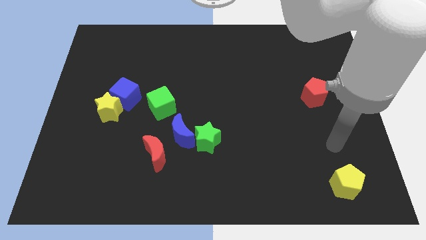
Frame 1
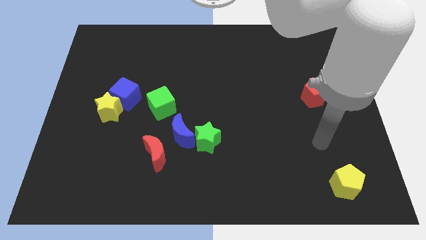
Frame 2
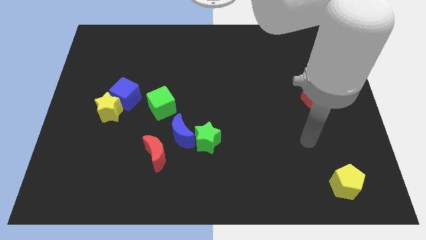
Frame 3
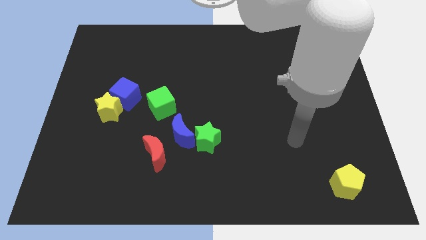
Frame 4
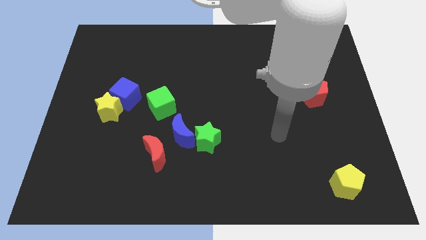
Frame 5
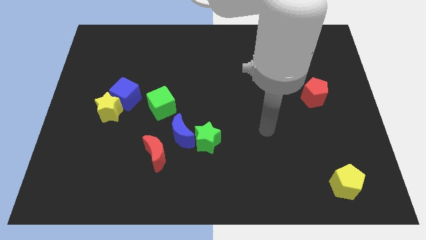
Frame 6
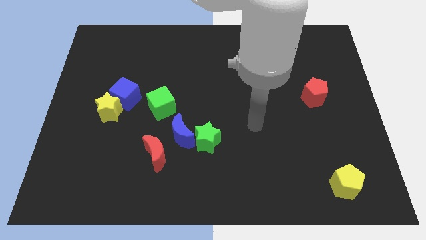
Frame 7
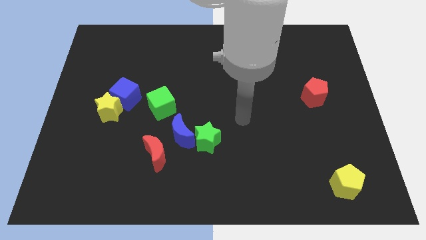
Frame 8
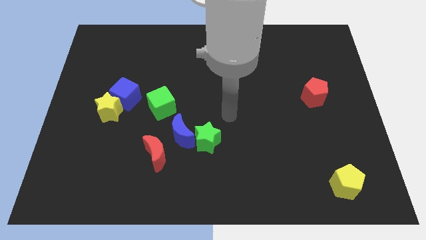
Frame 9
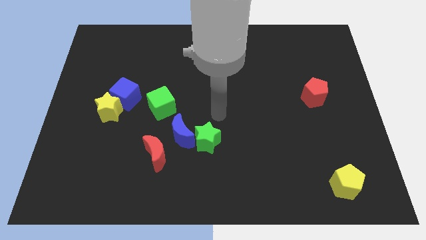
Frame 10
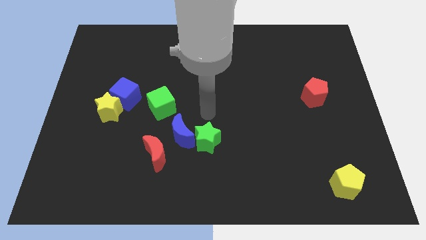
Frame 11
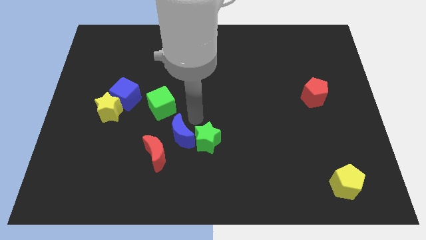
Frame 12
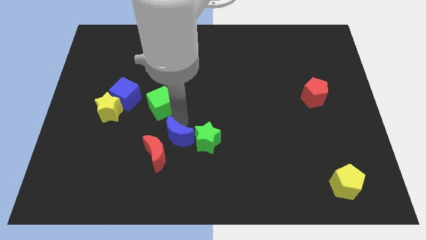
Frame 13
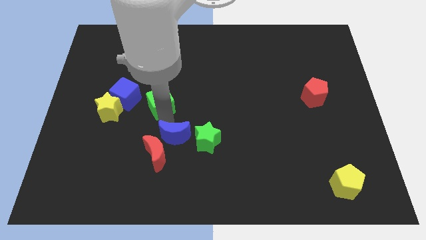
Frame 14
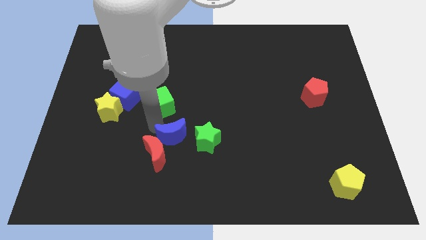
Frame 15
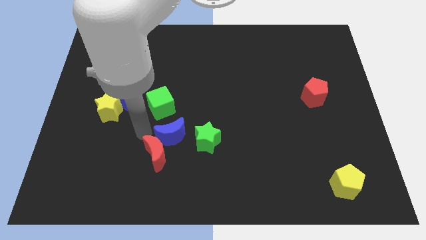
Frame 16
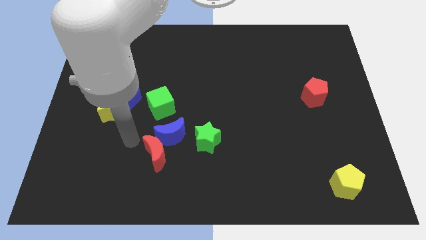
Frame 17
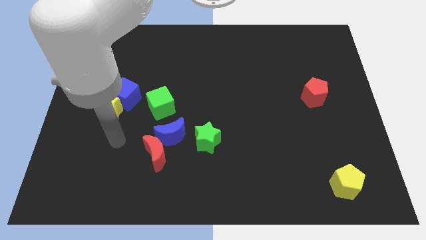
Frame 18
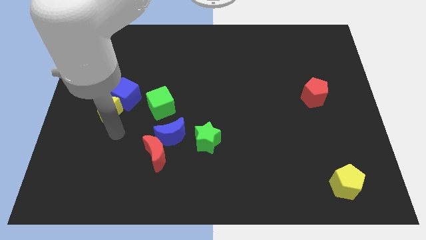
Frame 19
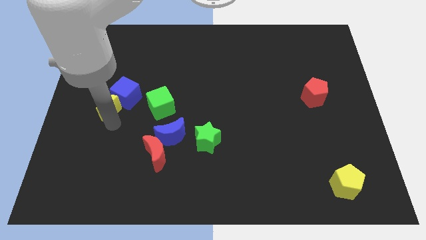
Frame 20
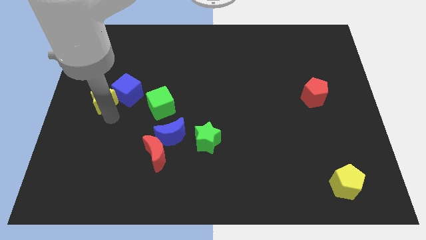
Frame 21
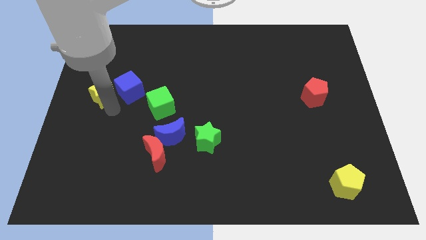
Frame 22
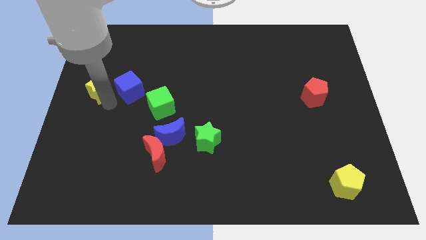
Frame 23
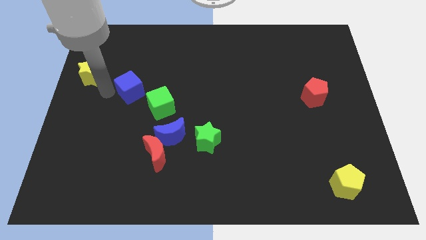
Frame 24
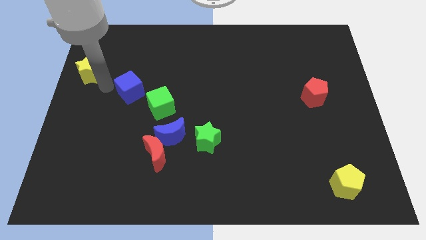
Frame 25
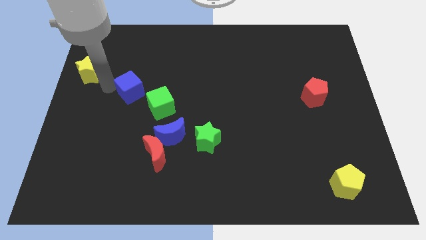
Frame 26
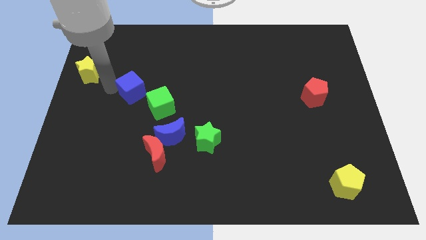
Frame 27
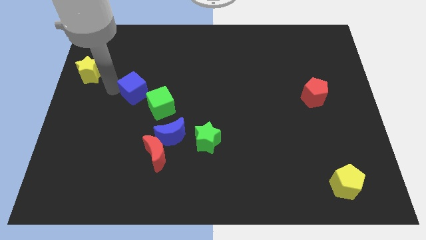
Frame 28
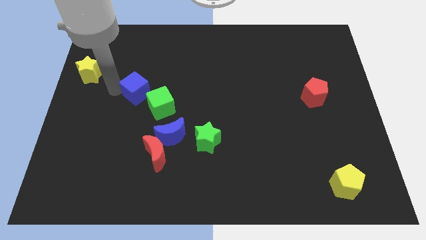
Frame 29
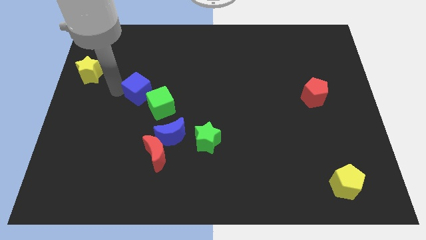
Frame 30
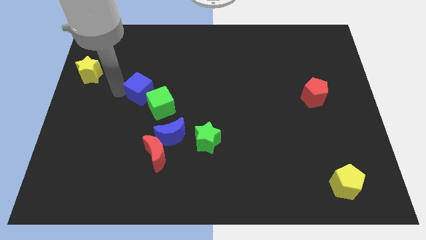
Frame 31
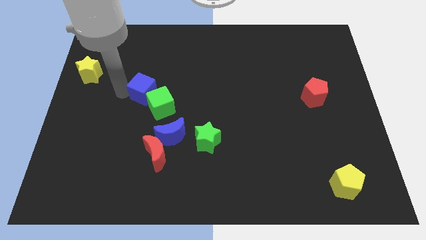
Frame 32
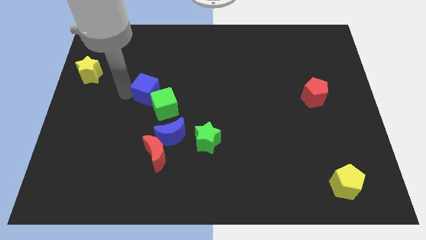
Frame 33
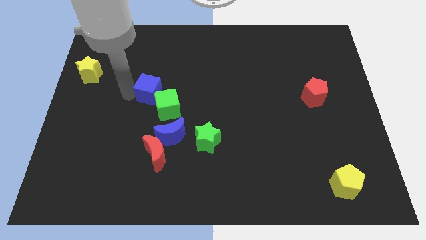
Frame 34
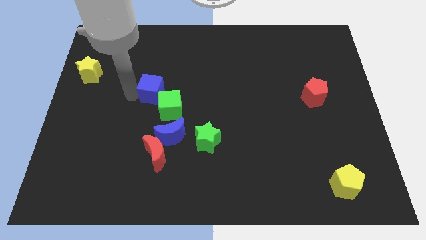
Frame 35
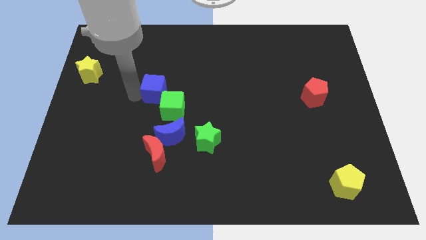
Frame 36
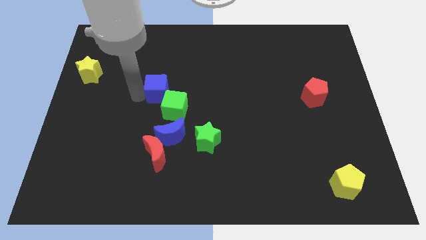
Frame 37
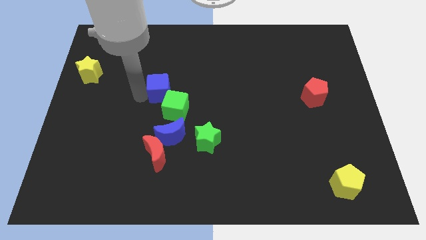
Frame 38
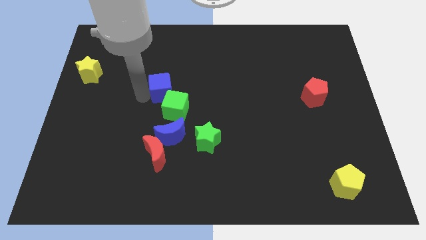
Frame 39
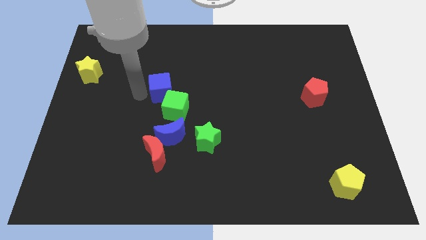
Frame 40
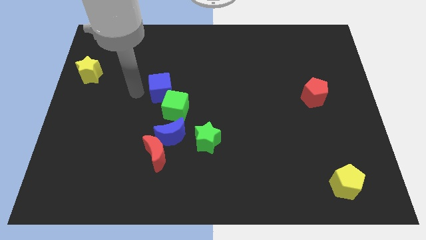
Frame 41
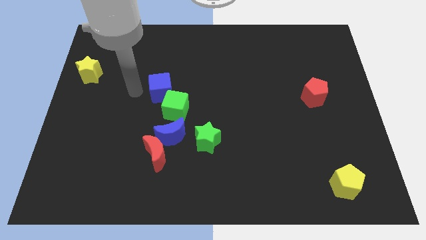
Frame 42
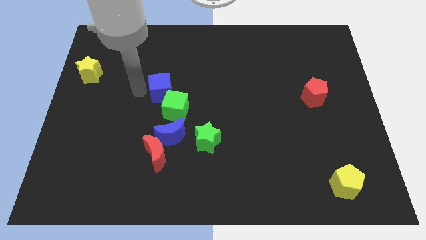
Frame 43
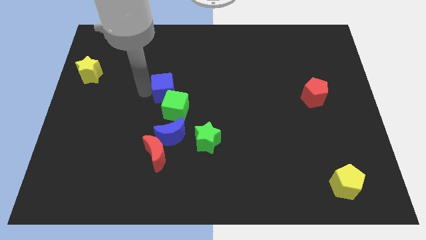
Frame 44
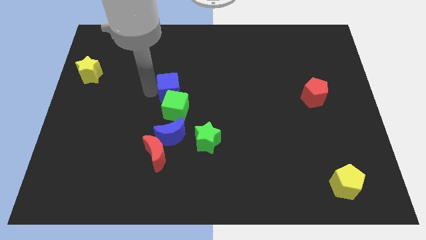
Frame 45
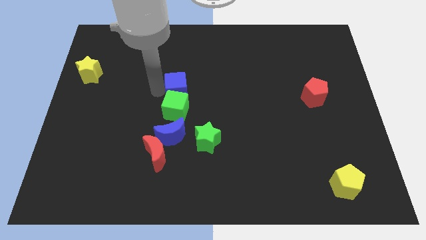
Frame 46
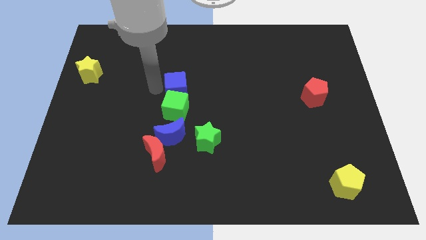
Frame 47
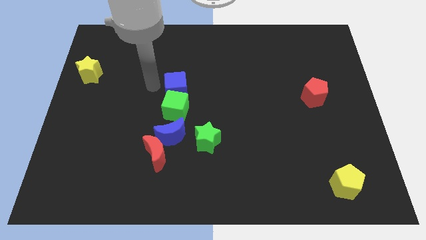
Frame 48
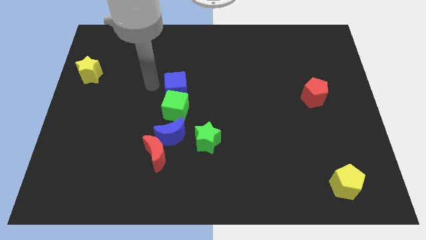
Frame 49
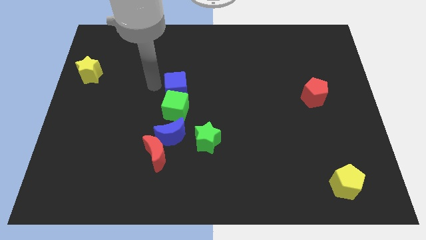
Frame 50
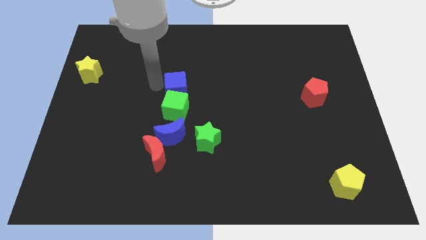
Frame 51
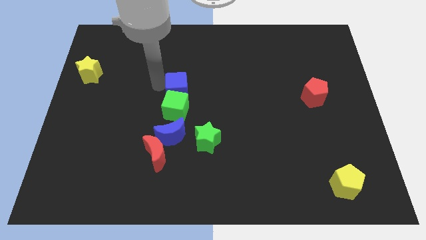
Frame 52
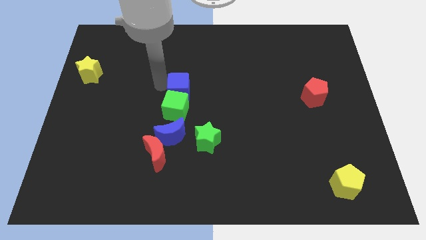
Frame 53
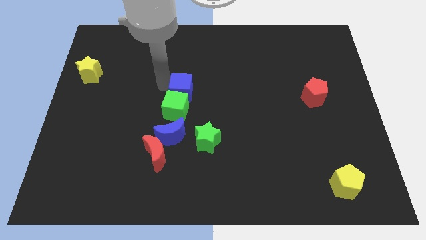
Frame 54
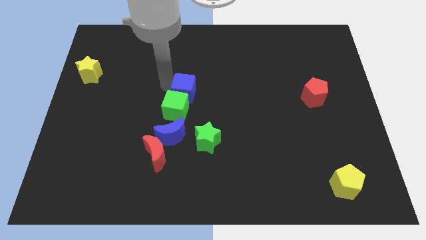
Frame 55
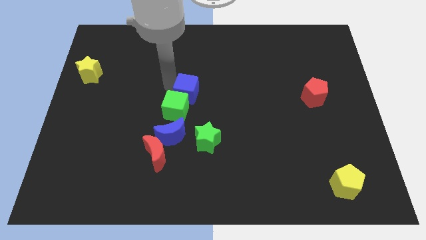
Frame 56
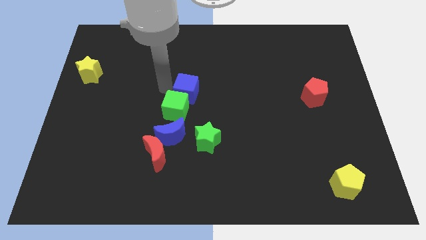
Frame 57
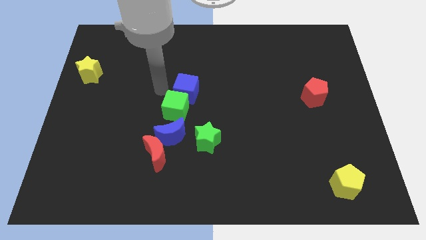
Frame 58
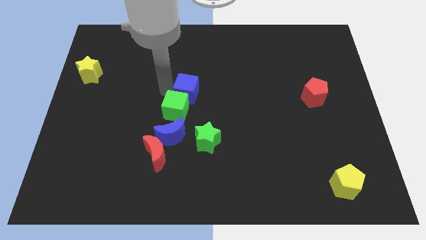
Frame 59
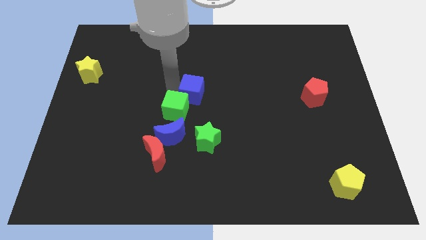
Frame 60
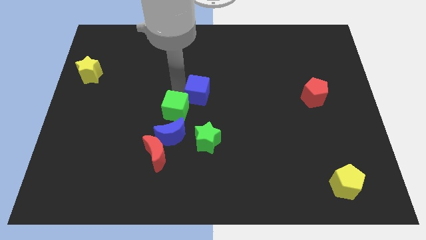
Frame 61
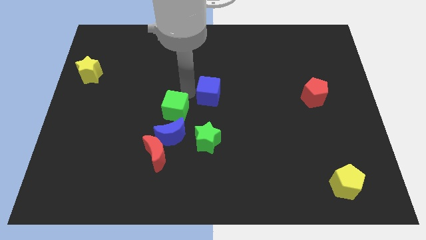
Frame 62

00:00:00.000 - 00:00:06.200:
push the blue cube to the right

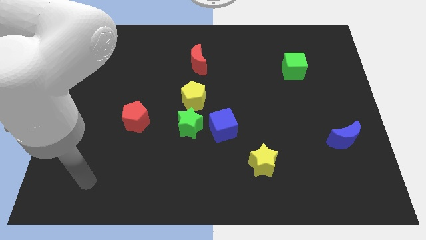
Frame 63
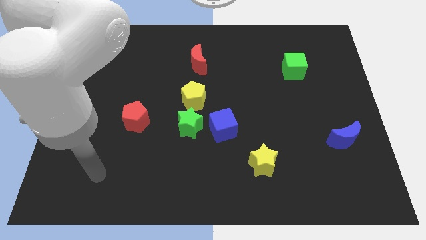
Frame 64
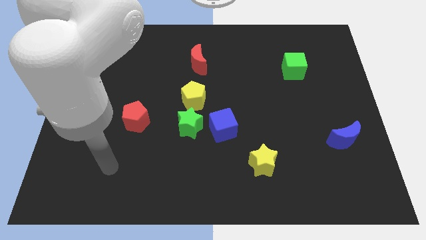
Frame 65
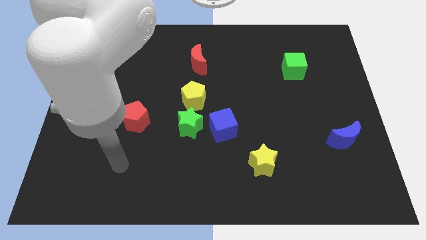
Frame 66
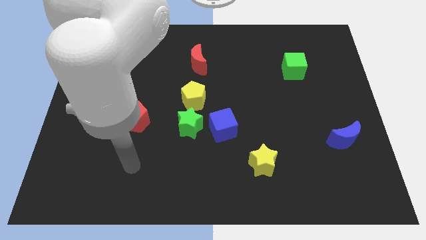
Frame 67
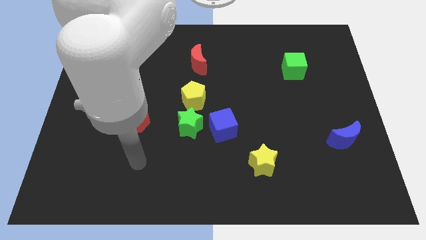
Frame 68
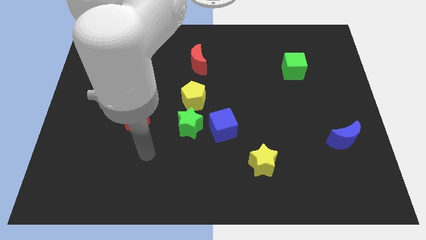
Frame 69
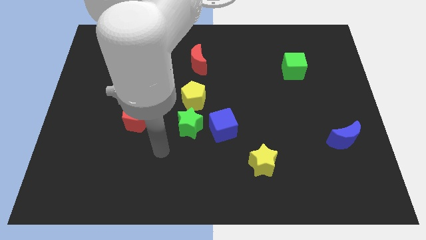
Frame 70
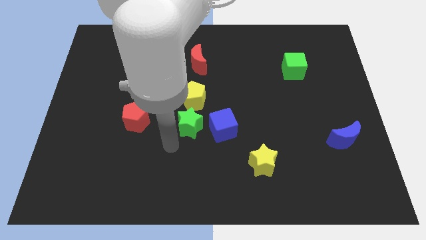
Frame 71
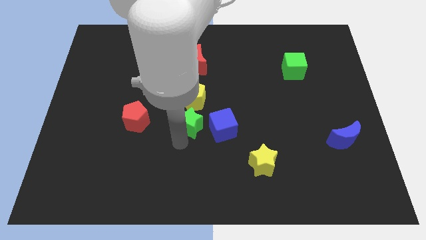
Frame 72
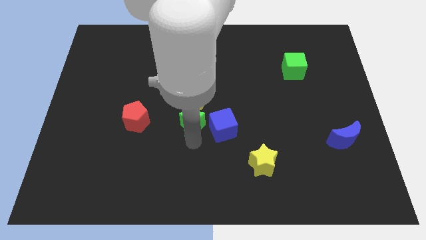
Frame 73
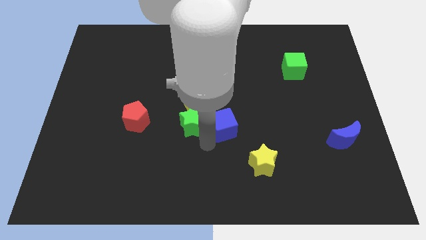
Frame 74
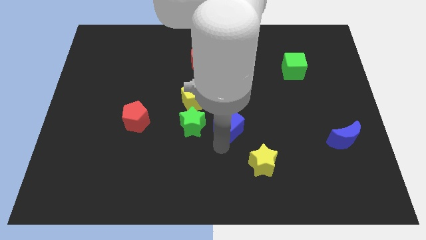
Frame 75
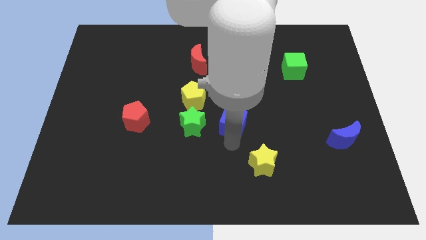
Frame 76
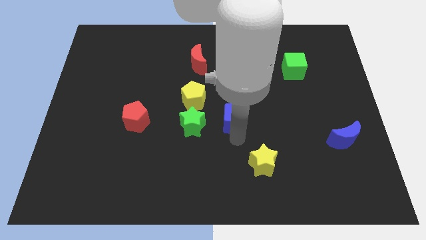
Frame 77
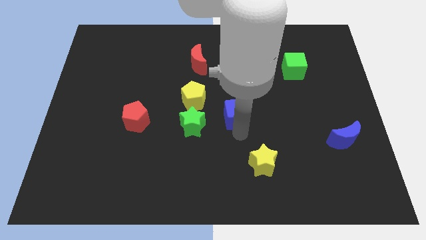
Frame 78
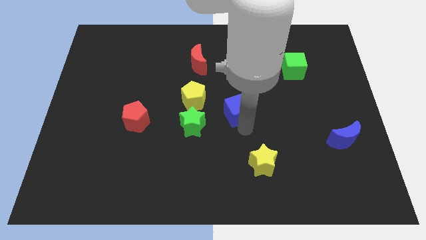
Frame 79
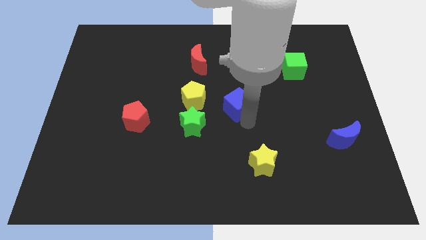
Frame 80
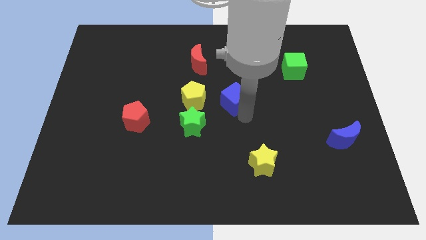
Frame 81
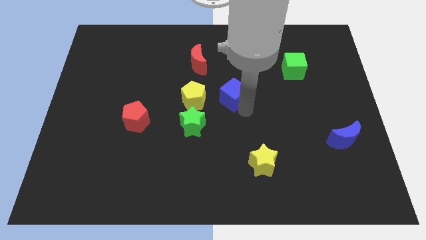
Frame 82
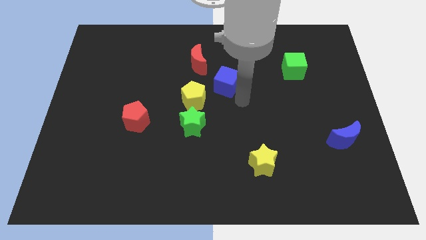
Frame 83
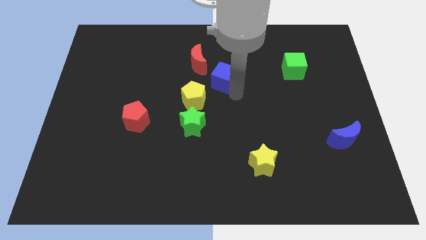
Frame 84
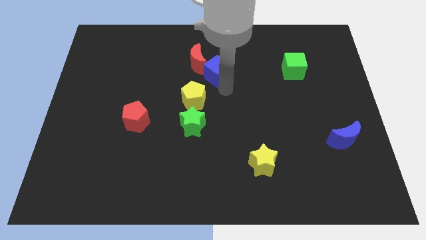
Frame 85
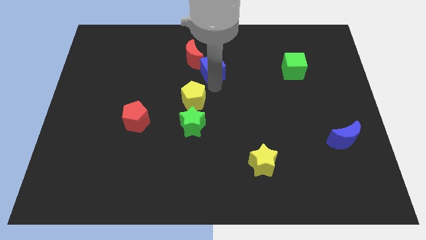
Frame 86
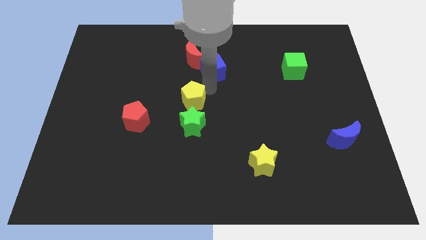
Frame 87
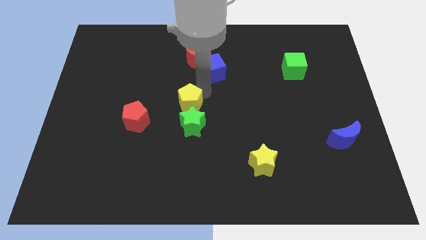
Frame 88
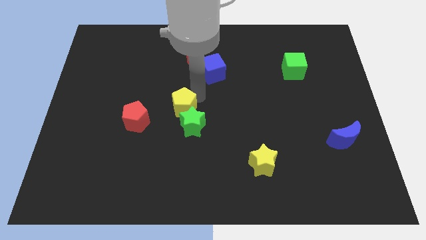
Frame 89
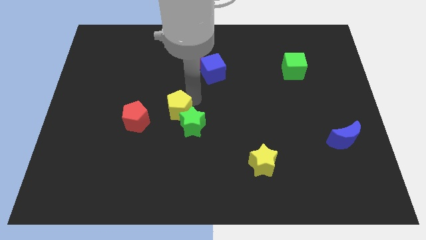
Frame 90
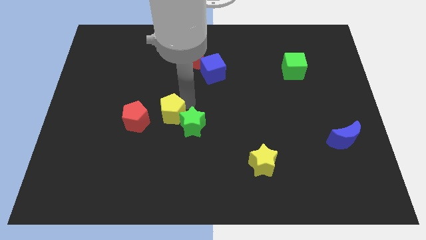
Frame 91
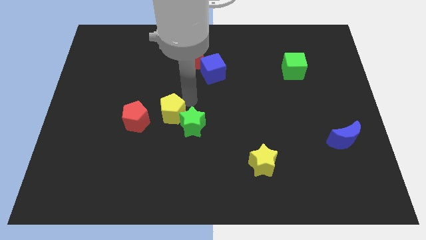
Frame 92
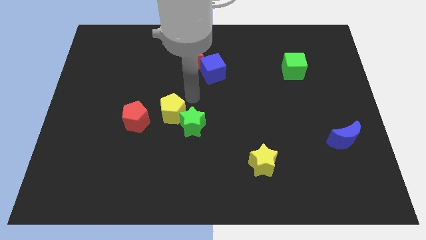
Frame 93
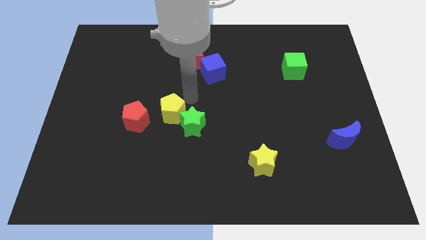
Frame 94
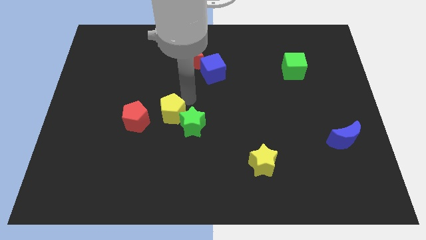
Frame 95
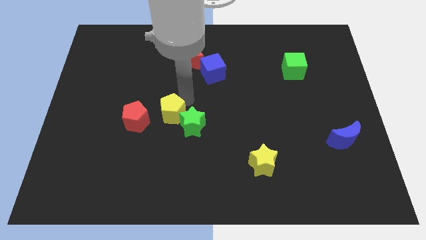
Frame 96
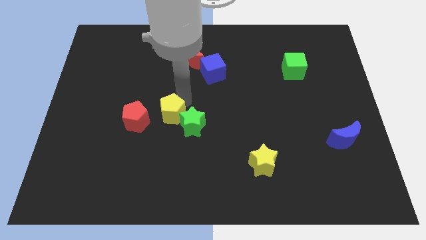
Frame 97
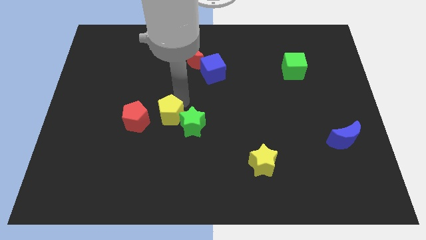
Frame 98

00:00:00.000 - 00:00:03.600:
slide the yellow pentagon a little down and then to the left
